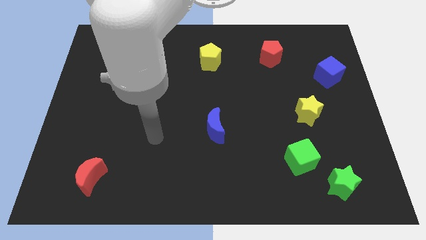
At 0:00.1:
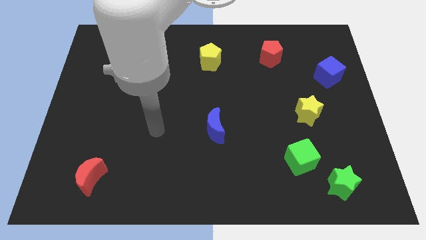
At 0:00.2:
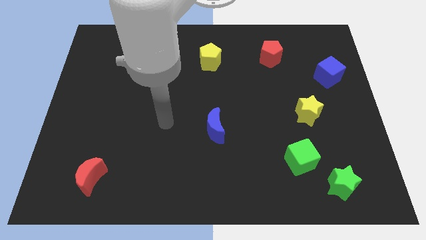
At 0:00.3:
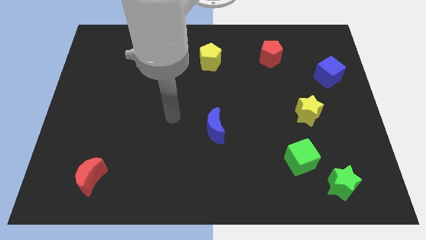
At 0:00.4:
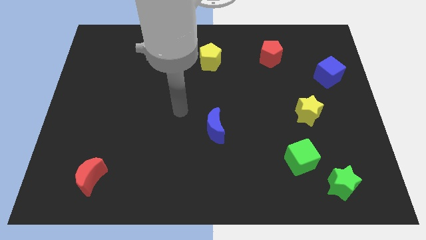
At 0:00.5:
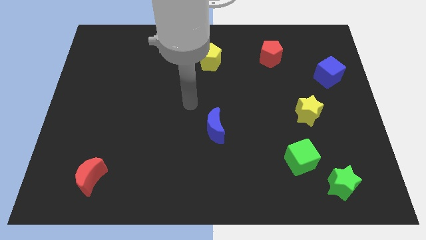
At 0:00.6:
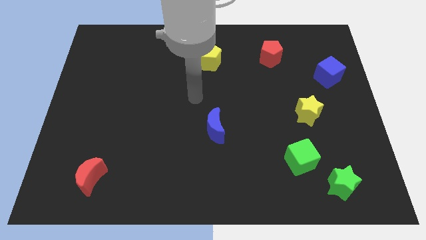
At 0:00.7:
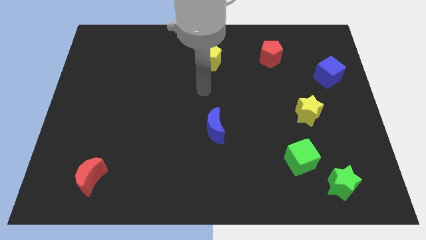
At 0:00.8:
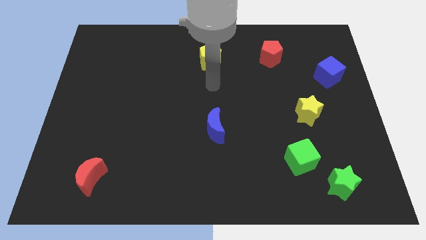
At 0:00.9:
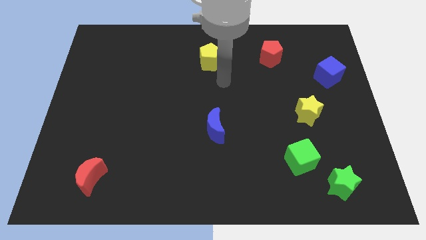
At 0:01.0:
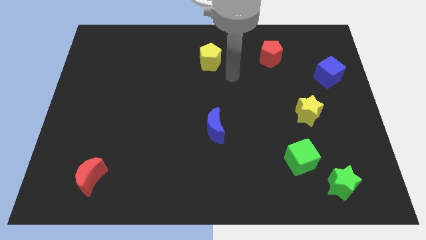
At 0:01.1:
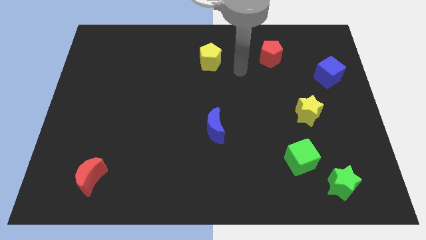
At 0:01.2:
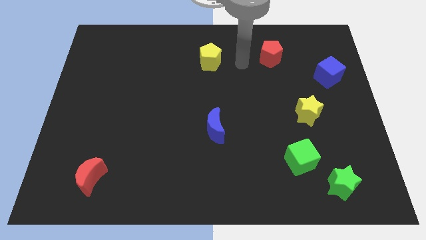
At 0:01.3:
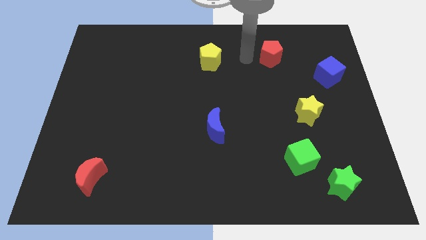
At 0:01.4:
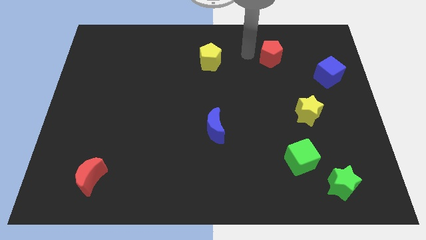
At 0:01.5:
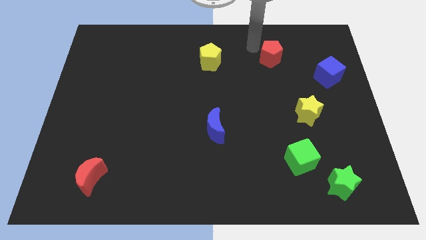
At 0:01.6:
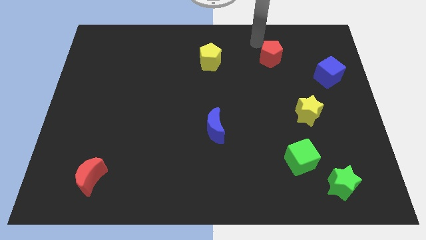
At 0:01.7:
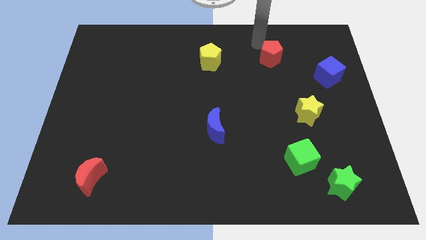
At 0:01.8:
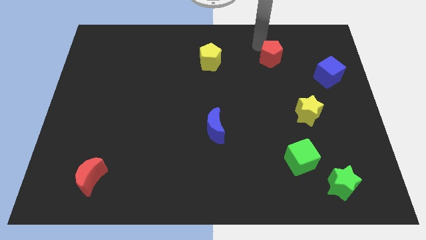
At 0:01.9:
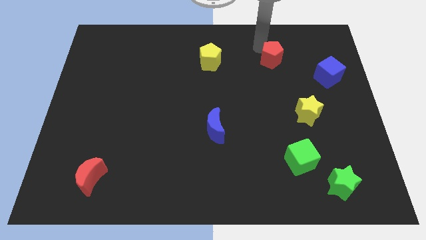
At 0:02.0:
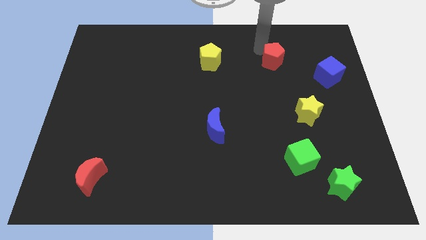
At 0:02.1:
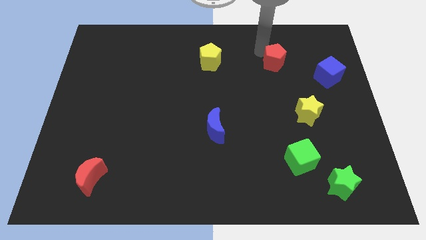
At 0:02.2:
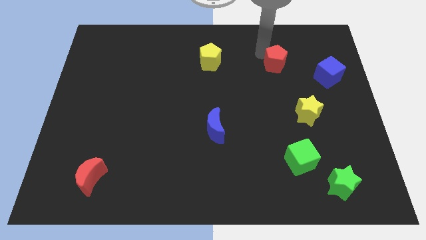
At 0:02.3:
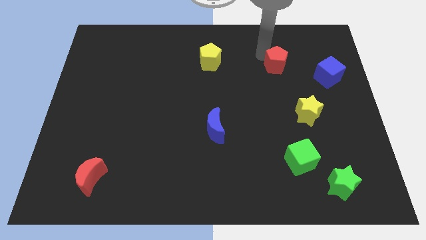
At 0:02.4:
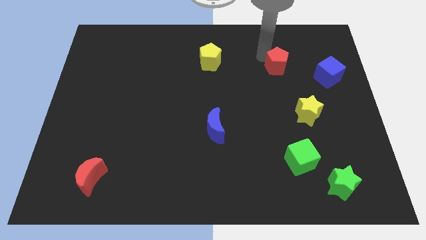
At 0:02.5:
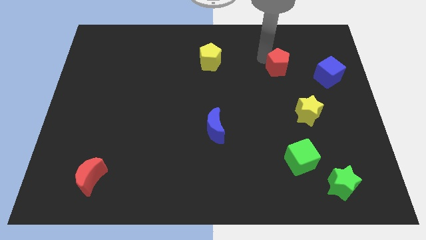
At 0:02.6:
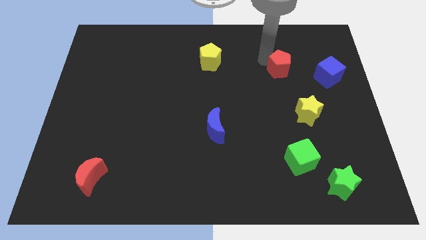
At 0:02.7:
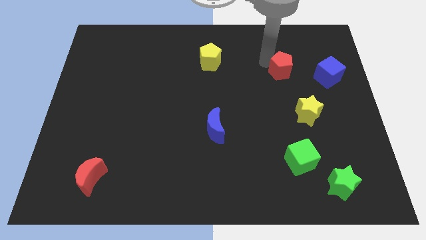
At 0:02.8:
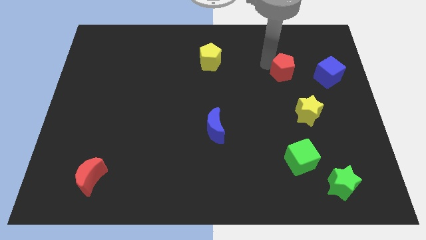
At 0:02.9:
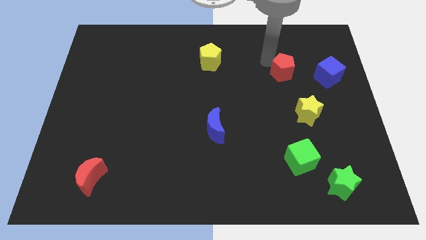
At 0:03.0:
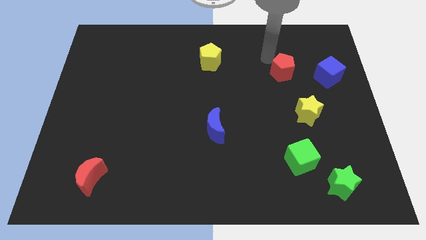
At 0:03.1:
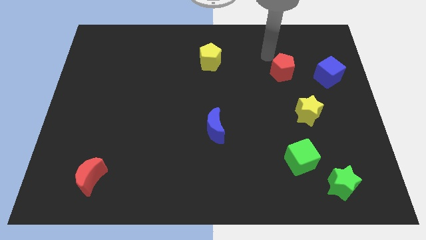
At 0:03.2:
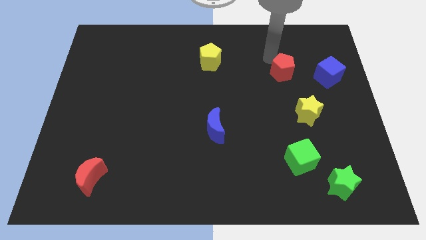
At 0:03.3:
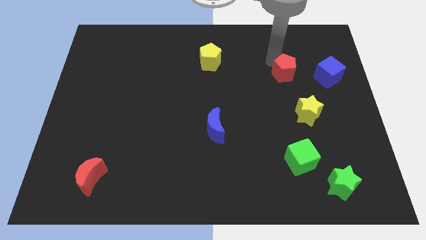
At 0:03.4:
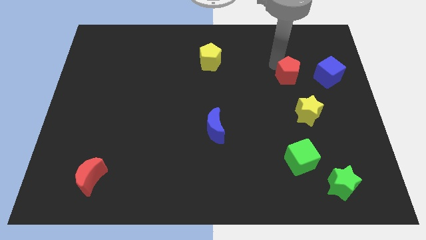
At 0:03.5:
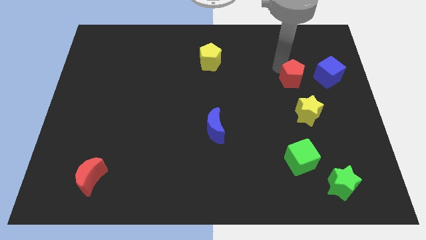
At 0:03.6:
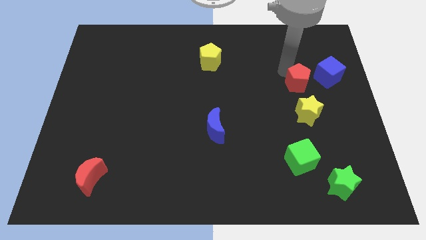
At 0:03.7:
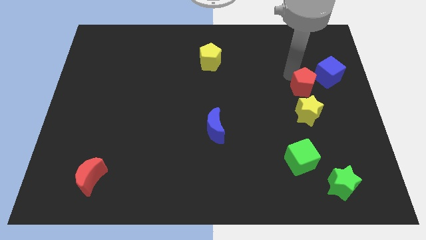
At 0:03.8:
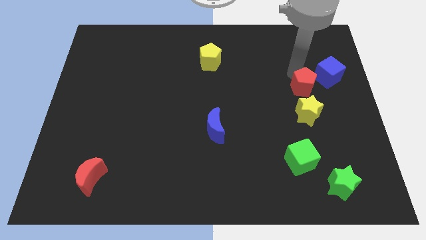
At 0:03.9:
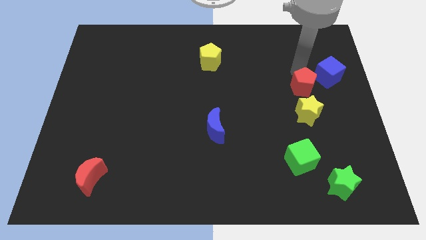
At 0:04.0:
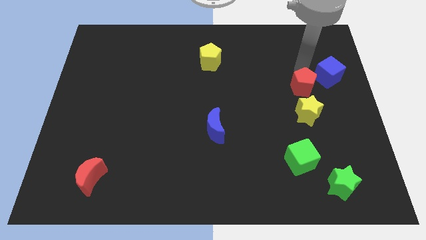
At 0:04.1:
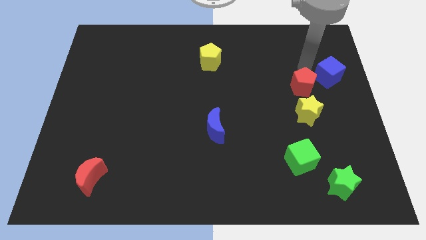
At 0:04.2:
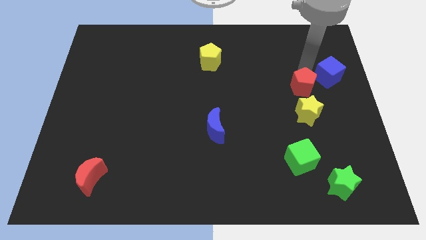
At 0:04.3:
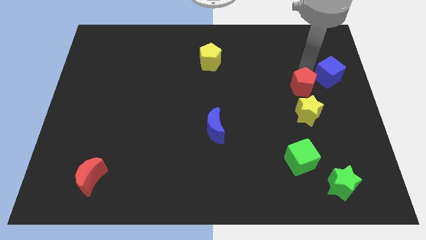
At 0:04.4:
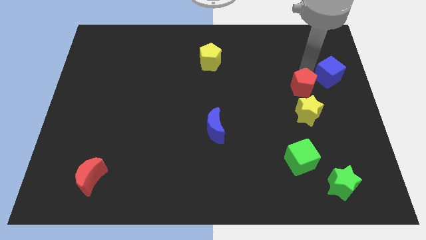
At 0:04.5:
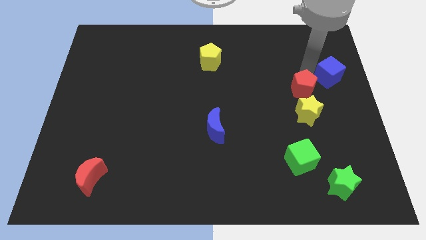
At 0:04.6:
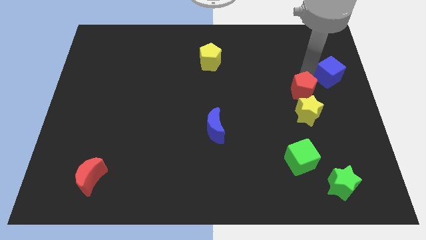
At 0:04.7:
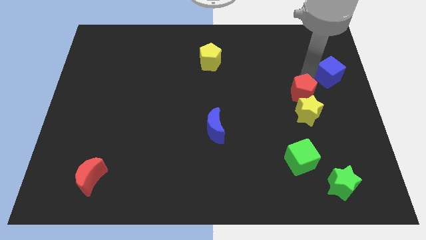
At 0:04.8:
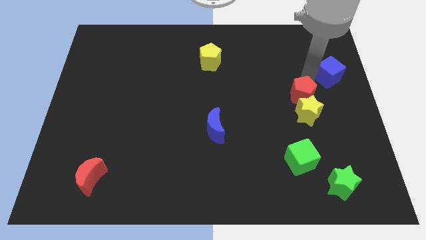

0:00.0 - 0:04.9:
slide the red pentagon next to the yellow star

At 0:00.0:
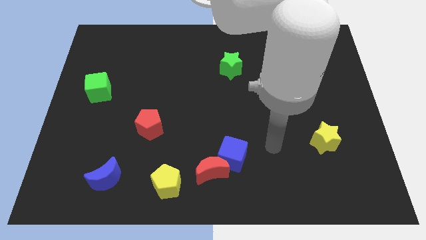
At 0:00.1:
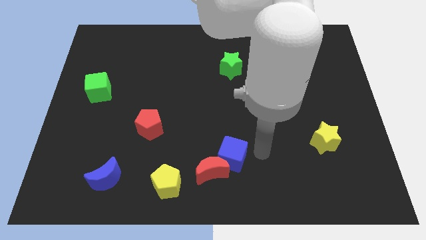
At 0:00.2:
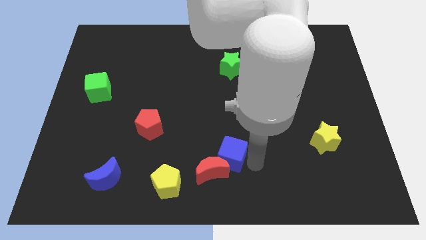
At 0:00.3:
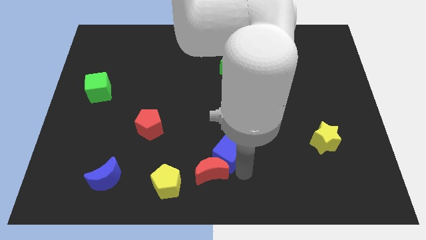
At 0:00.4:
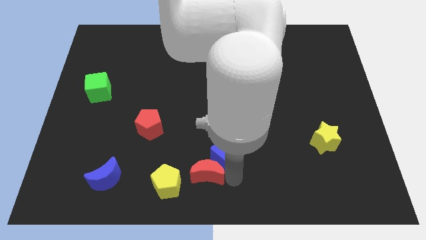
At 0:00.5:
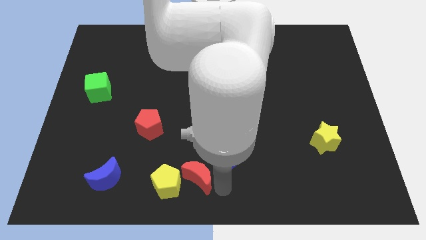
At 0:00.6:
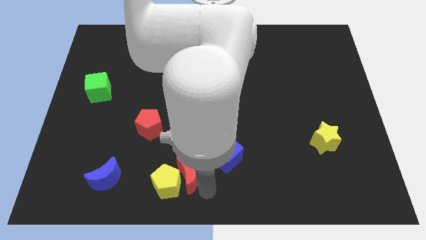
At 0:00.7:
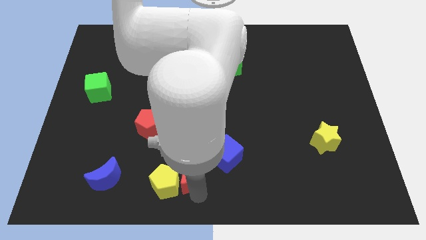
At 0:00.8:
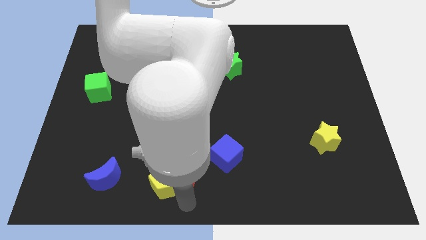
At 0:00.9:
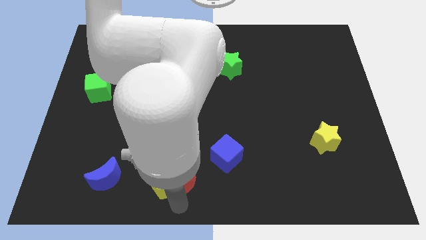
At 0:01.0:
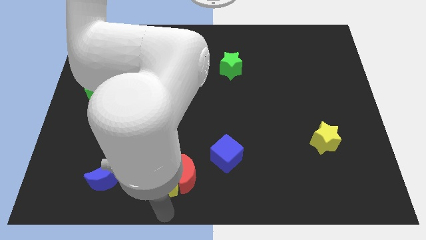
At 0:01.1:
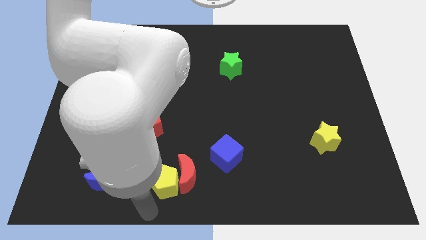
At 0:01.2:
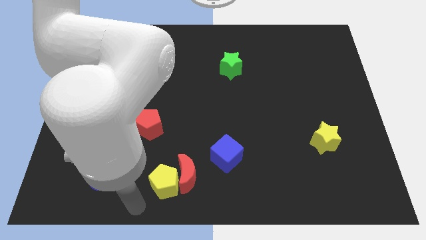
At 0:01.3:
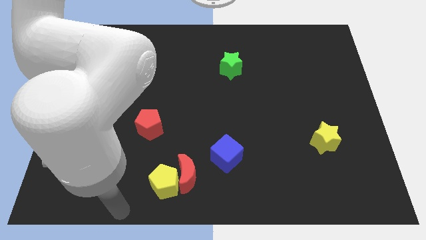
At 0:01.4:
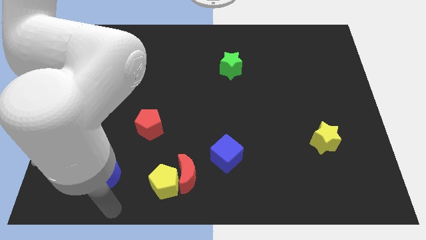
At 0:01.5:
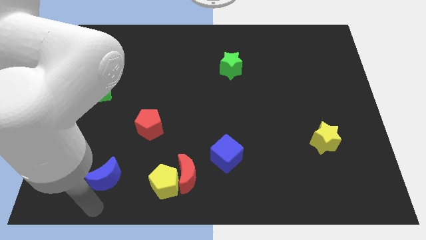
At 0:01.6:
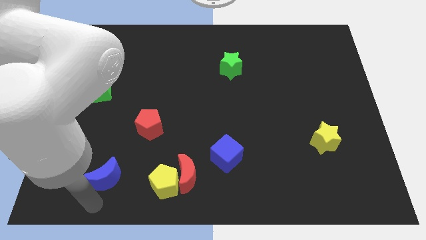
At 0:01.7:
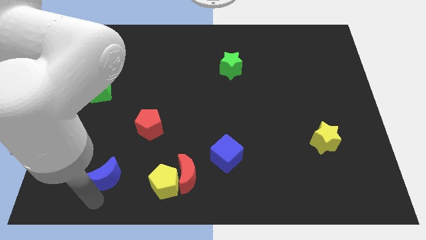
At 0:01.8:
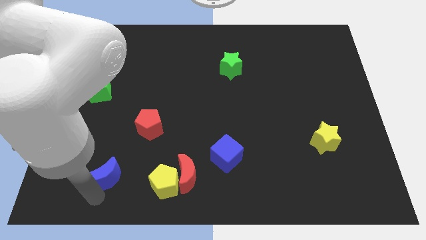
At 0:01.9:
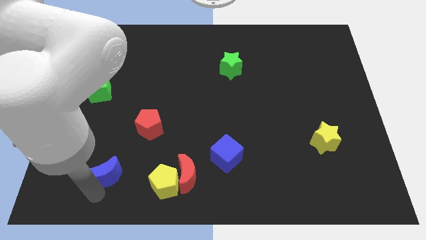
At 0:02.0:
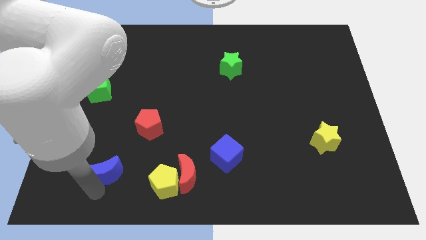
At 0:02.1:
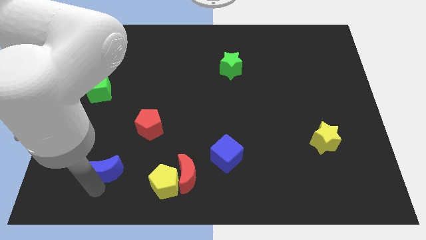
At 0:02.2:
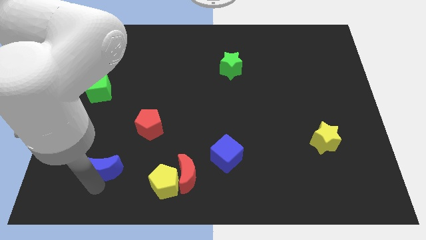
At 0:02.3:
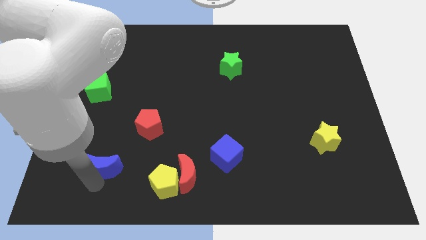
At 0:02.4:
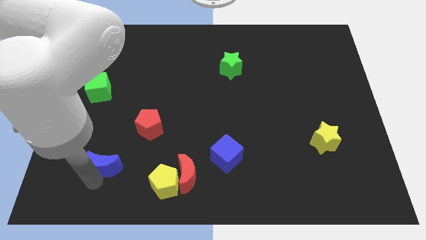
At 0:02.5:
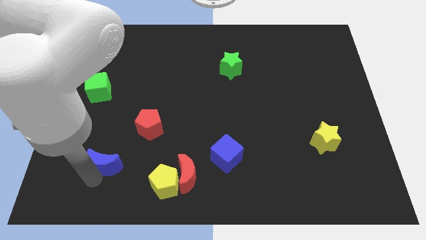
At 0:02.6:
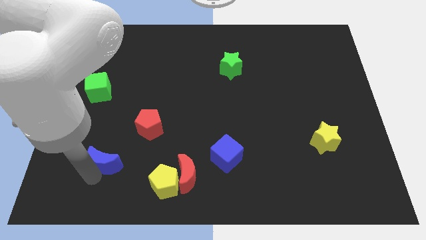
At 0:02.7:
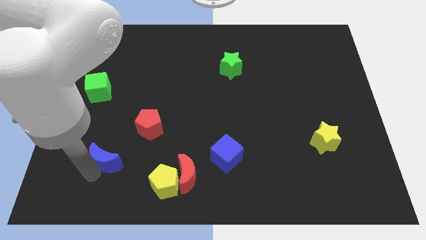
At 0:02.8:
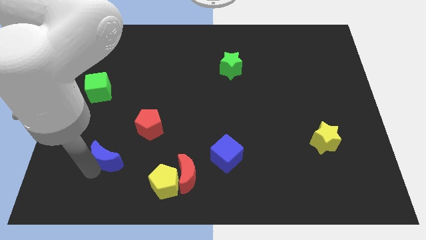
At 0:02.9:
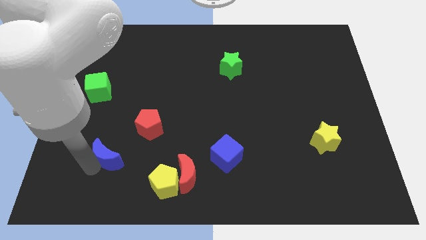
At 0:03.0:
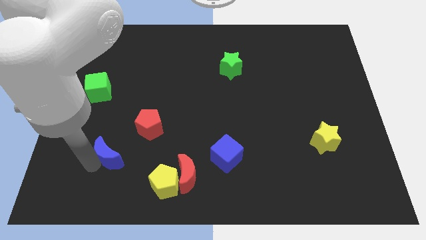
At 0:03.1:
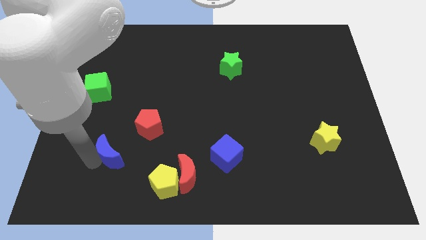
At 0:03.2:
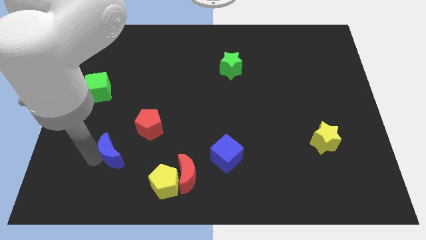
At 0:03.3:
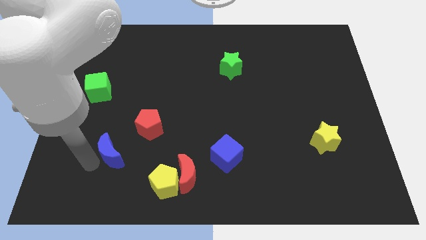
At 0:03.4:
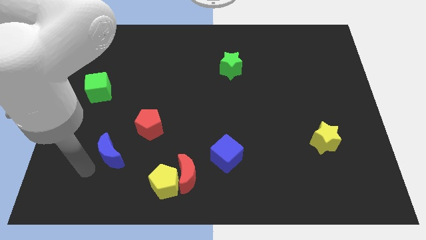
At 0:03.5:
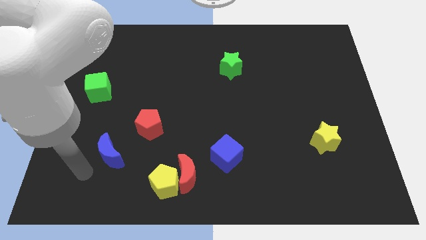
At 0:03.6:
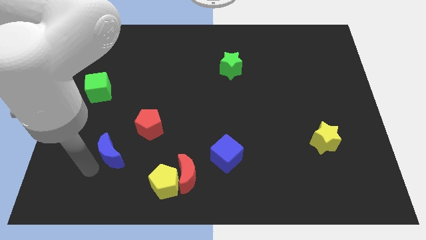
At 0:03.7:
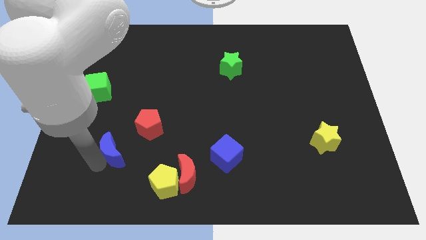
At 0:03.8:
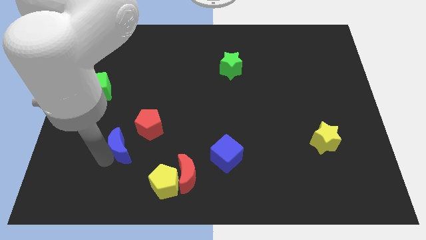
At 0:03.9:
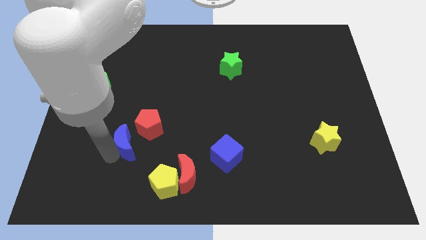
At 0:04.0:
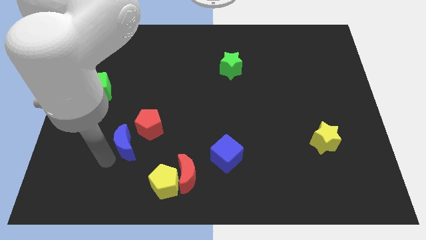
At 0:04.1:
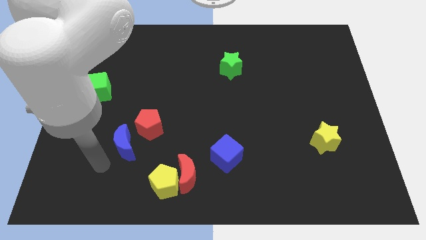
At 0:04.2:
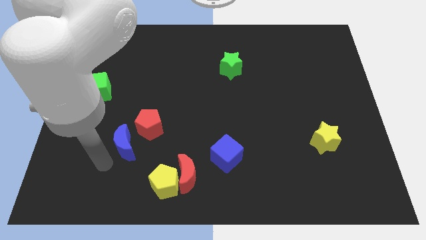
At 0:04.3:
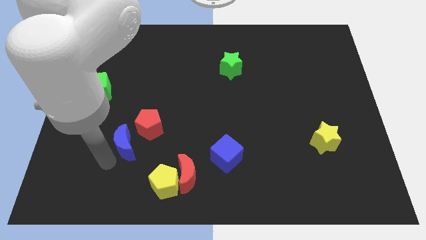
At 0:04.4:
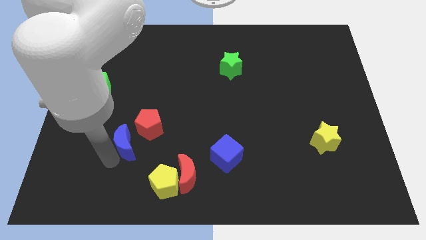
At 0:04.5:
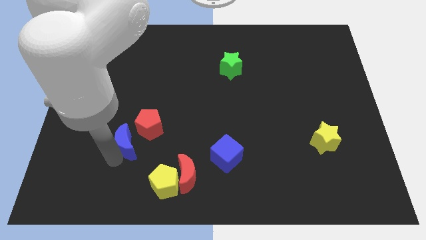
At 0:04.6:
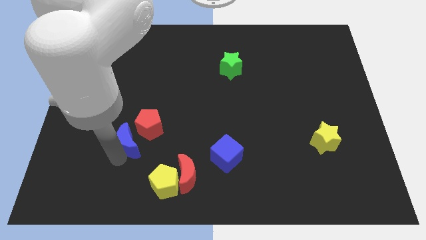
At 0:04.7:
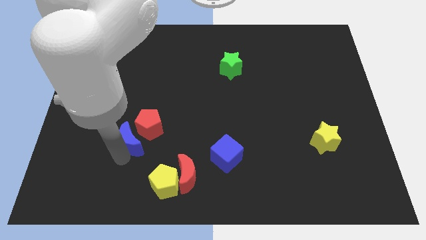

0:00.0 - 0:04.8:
move the blue moon close to the red pentagon
